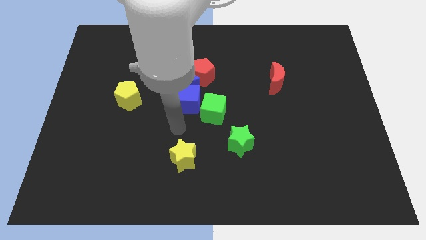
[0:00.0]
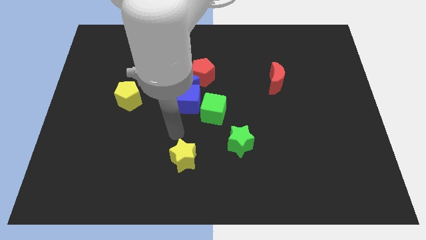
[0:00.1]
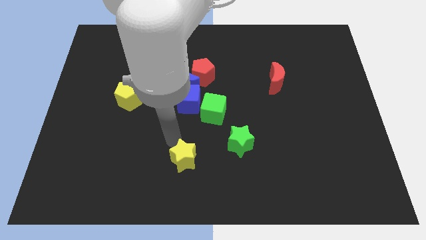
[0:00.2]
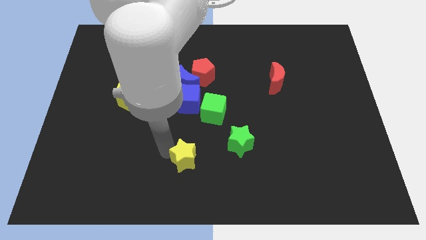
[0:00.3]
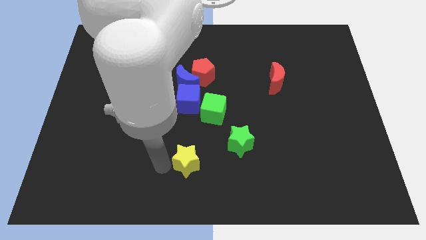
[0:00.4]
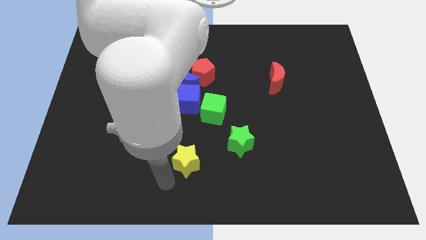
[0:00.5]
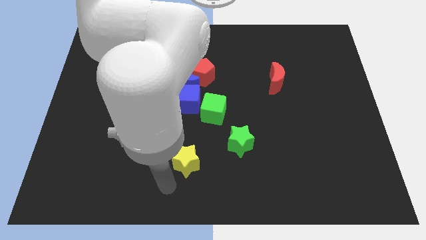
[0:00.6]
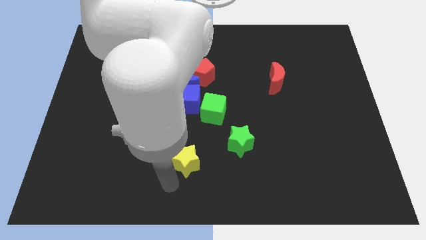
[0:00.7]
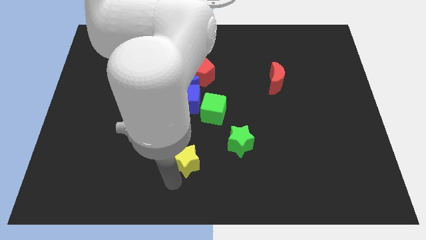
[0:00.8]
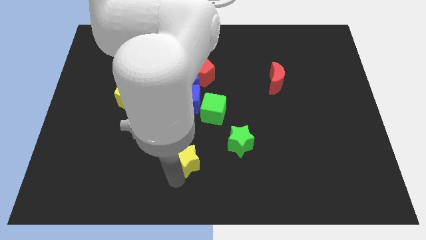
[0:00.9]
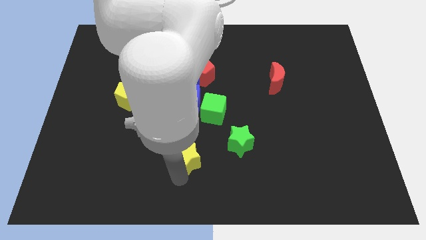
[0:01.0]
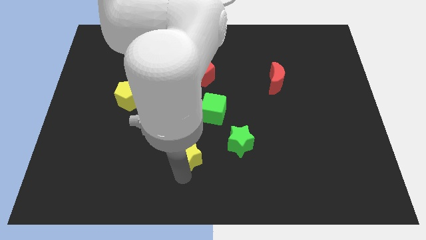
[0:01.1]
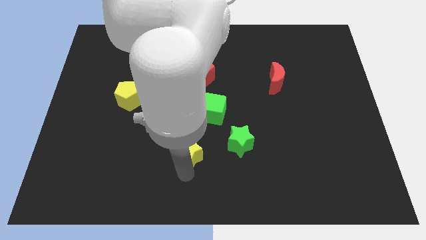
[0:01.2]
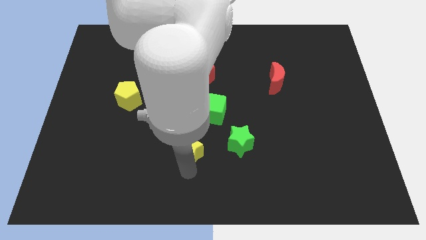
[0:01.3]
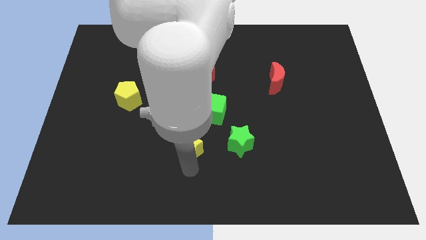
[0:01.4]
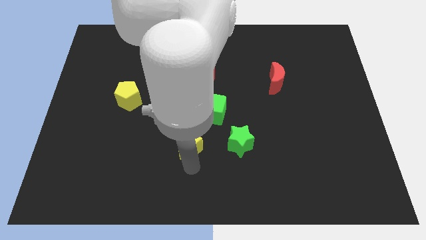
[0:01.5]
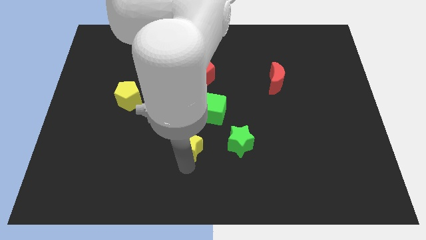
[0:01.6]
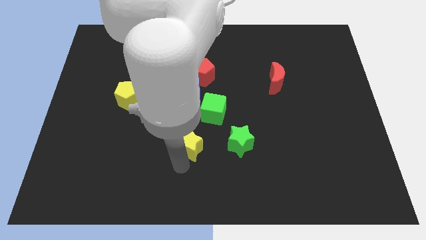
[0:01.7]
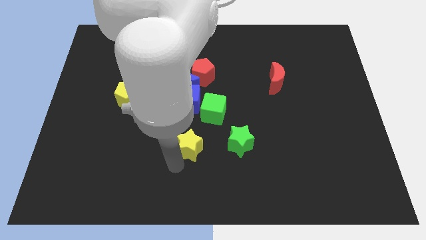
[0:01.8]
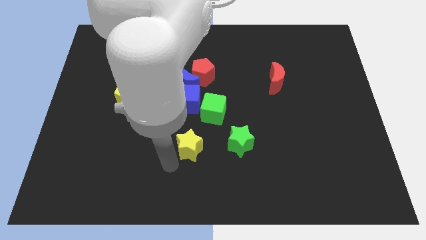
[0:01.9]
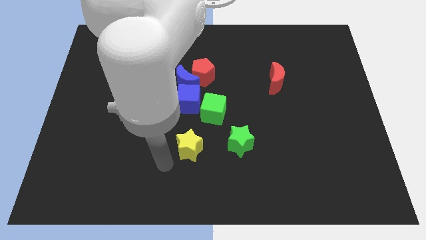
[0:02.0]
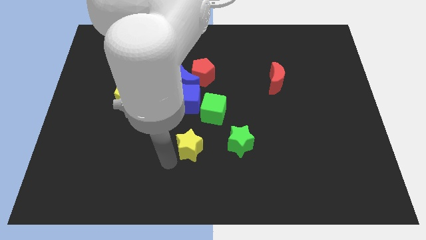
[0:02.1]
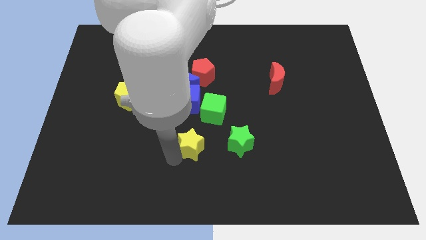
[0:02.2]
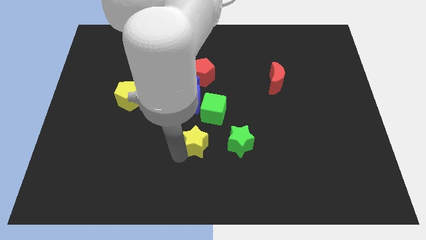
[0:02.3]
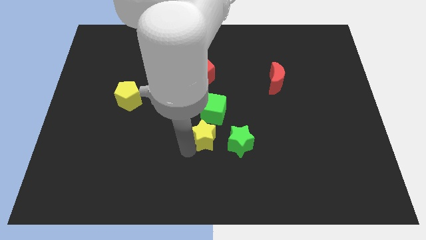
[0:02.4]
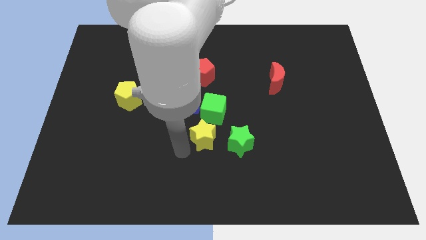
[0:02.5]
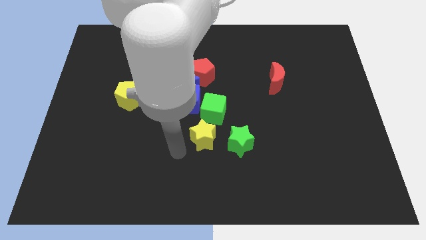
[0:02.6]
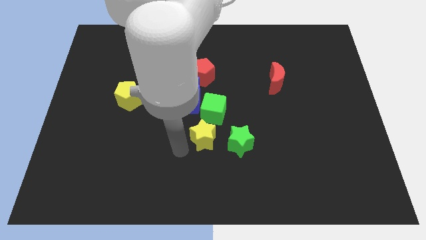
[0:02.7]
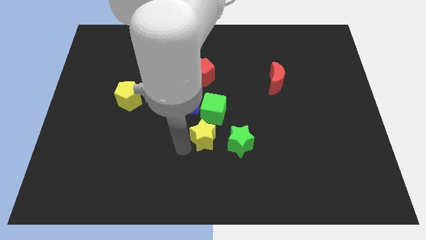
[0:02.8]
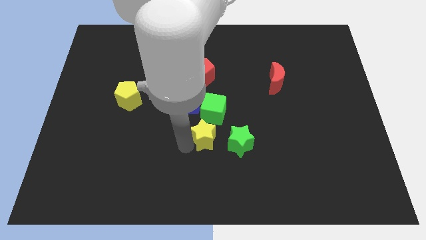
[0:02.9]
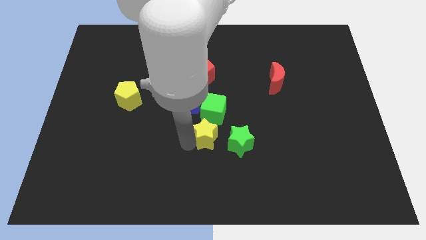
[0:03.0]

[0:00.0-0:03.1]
push the yellow star a bit upwards and to the right diagonally

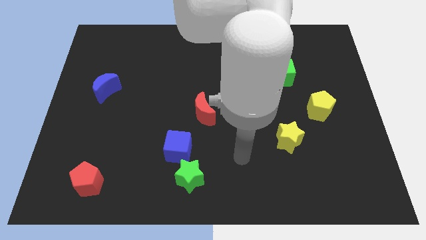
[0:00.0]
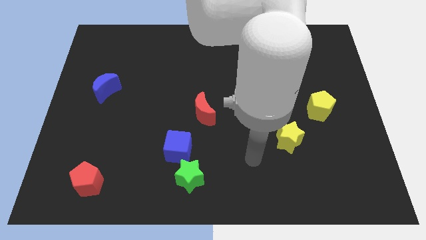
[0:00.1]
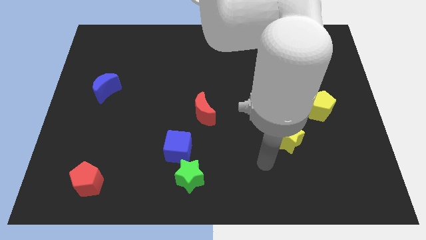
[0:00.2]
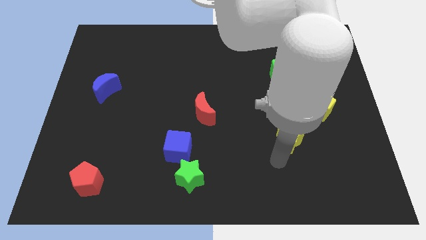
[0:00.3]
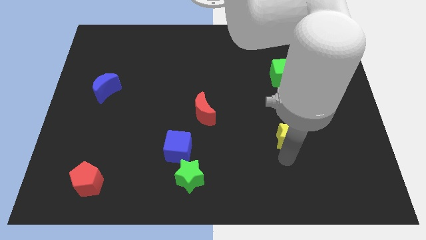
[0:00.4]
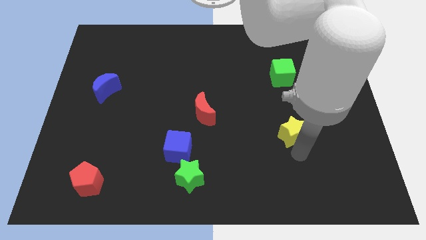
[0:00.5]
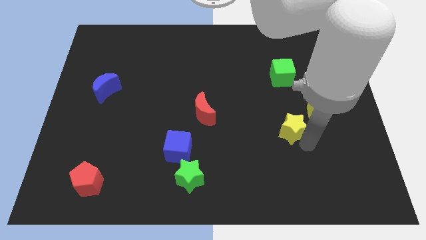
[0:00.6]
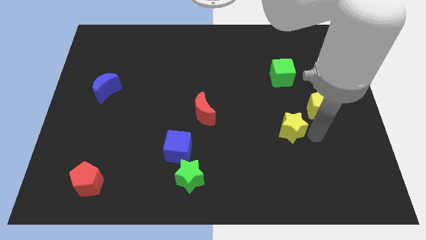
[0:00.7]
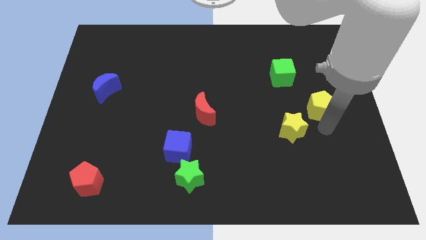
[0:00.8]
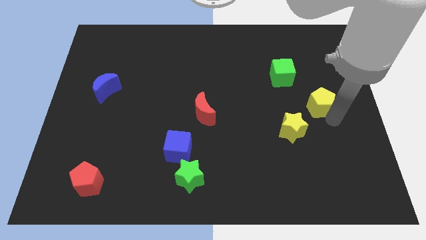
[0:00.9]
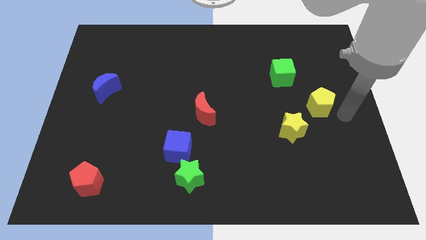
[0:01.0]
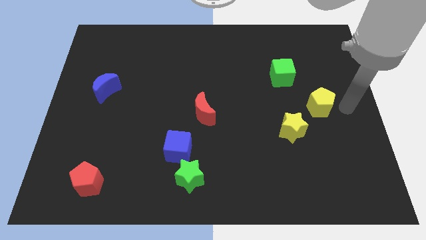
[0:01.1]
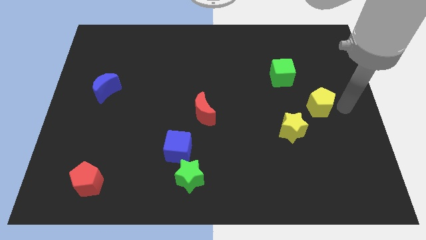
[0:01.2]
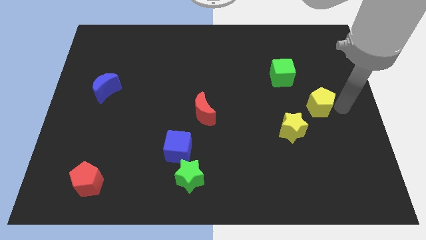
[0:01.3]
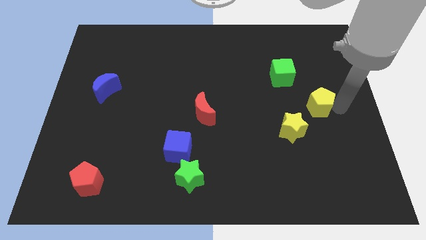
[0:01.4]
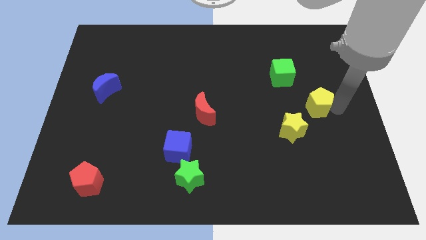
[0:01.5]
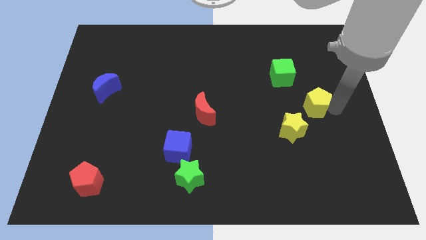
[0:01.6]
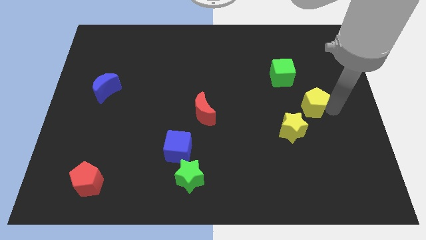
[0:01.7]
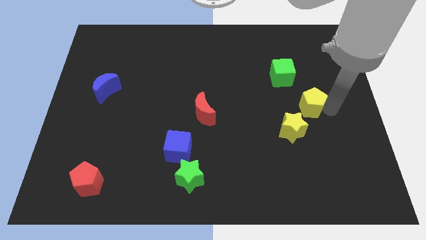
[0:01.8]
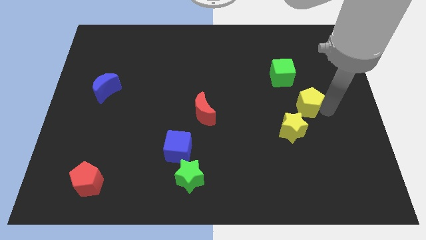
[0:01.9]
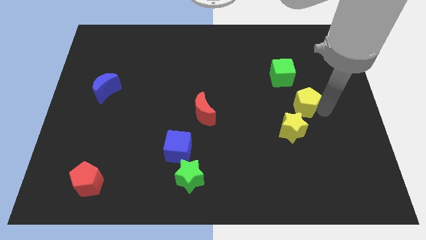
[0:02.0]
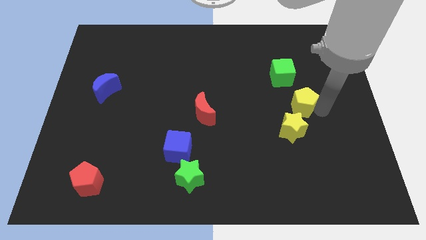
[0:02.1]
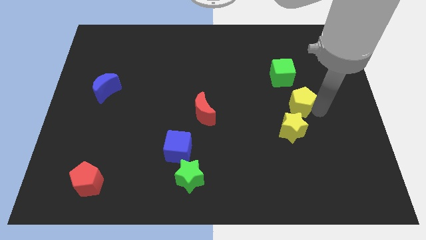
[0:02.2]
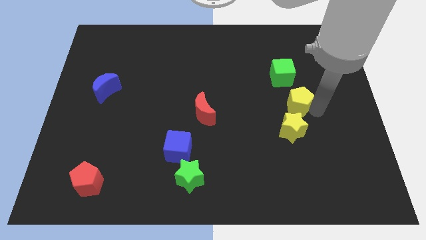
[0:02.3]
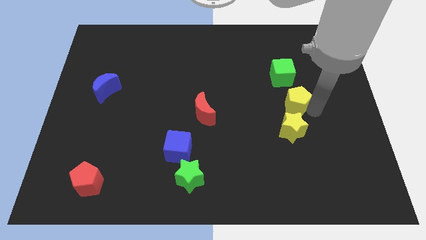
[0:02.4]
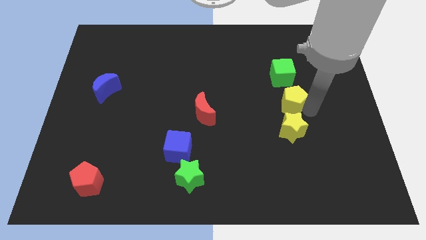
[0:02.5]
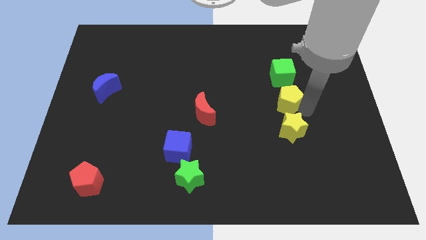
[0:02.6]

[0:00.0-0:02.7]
push the yellow pentagon a bit left

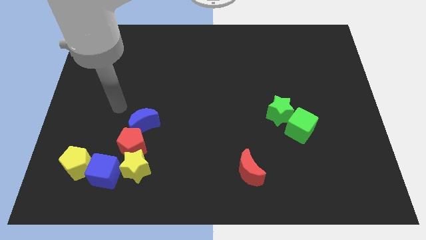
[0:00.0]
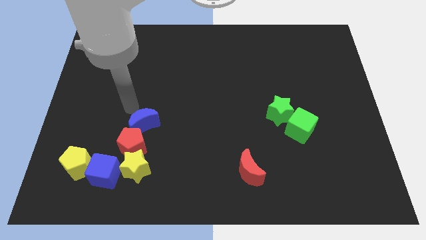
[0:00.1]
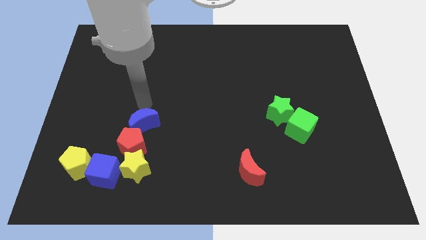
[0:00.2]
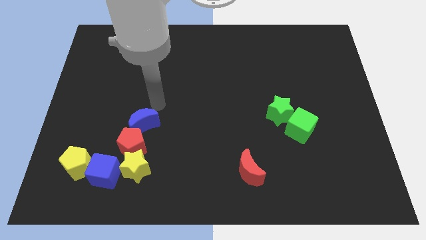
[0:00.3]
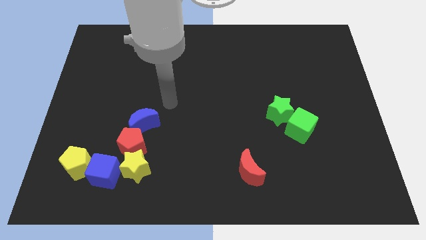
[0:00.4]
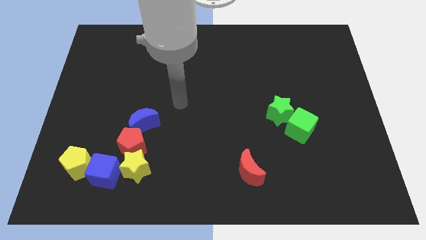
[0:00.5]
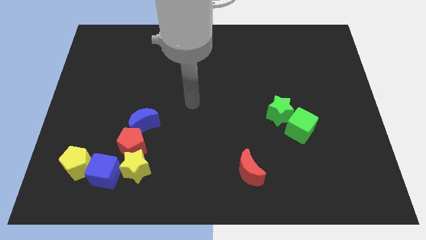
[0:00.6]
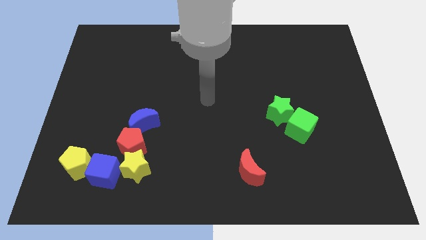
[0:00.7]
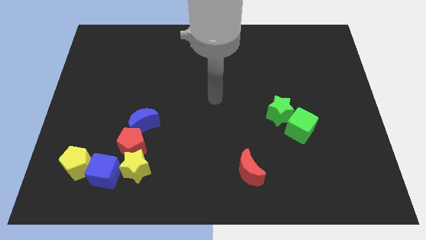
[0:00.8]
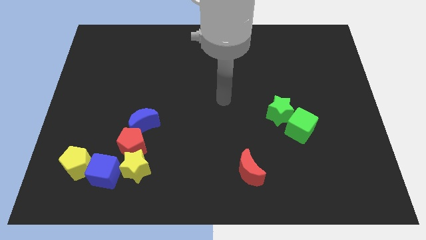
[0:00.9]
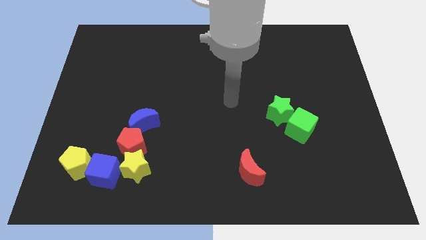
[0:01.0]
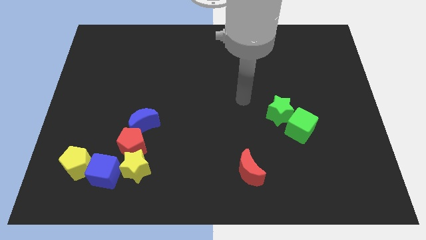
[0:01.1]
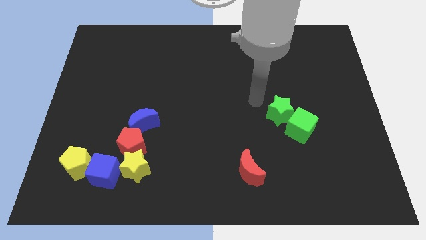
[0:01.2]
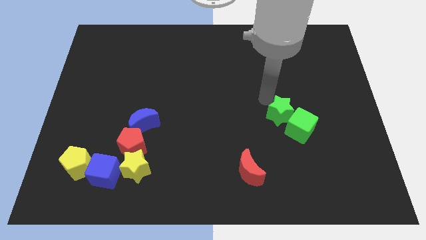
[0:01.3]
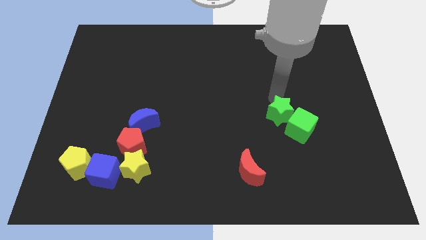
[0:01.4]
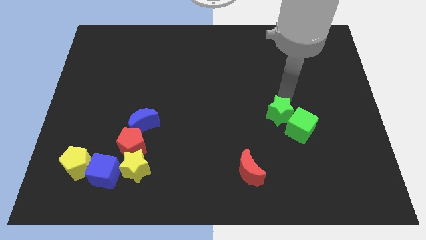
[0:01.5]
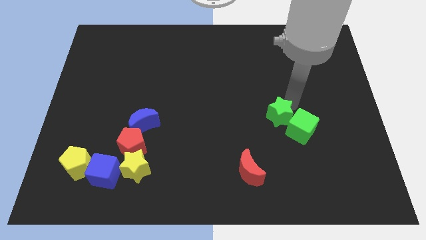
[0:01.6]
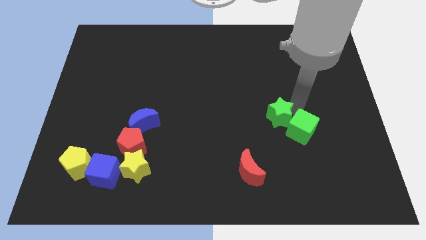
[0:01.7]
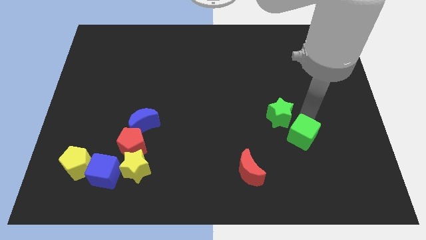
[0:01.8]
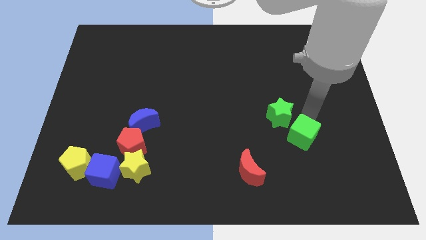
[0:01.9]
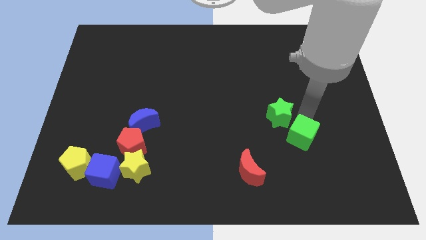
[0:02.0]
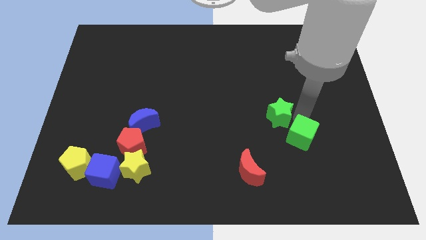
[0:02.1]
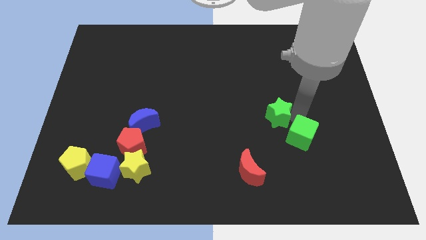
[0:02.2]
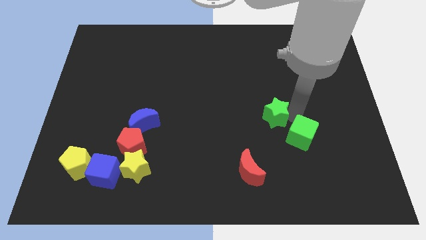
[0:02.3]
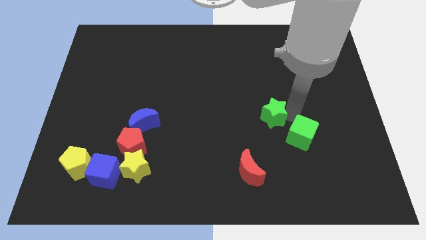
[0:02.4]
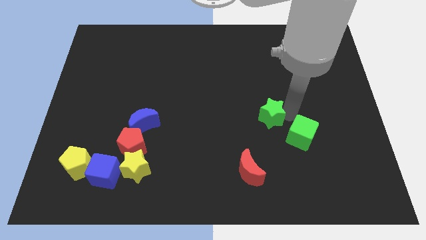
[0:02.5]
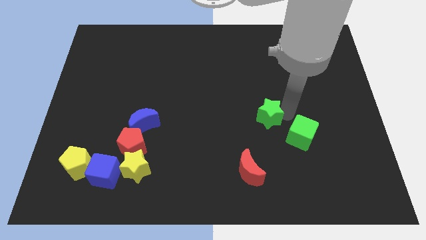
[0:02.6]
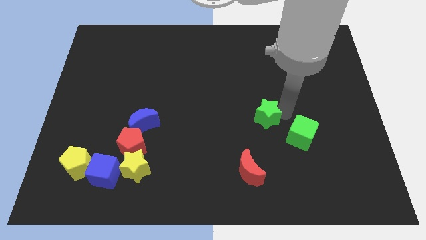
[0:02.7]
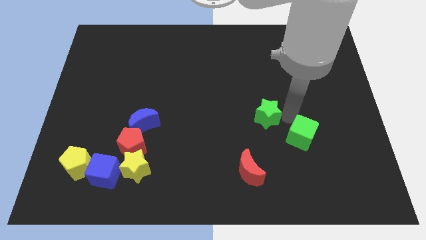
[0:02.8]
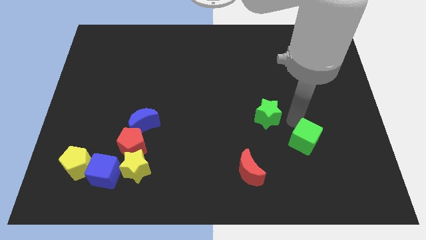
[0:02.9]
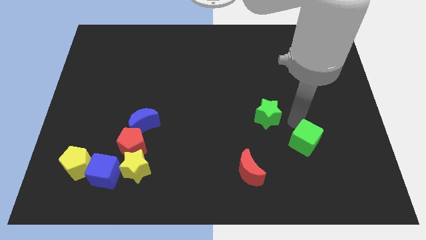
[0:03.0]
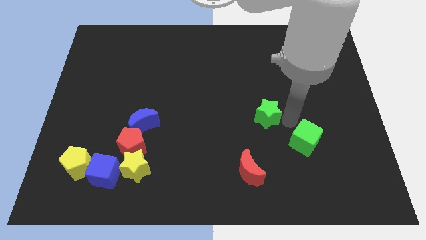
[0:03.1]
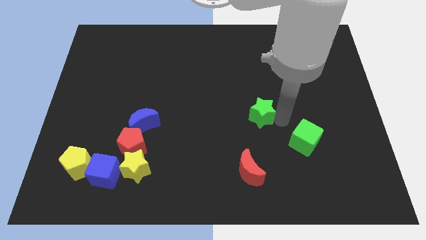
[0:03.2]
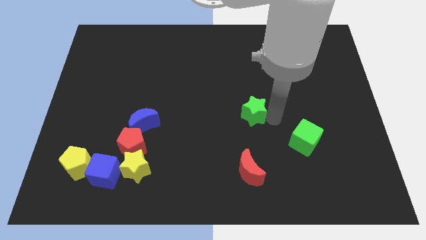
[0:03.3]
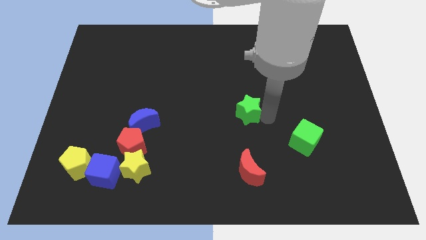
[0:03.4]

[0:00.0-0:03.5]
slightly push the green star to the left
